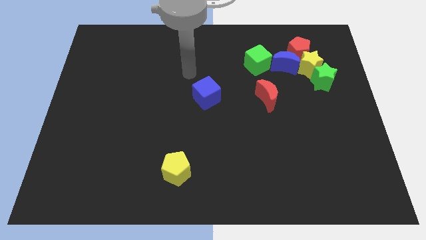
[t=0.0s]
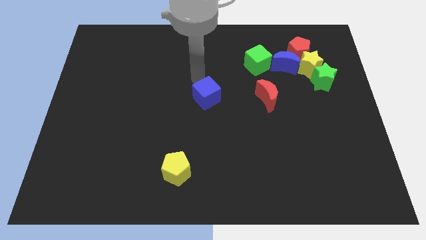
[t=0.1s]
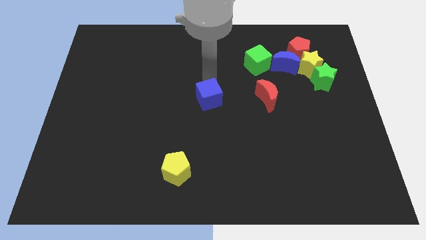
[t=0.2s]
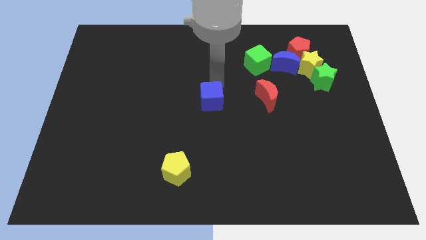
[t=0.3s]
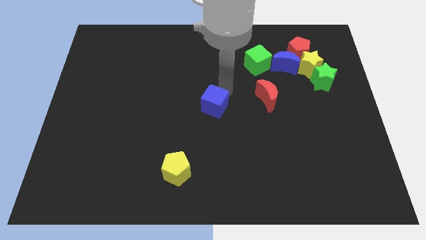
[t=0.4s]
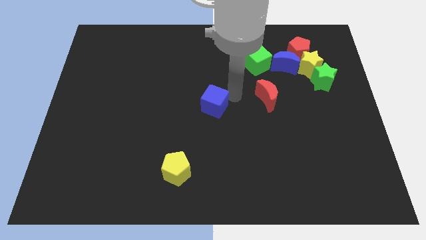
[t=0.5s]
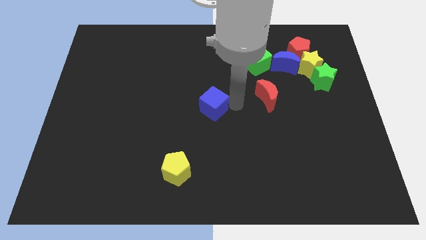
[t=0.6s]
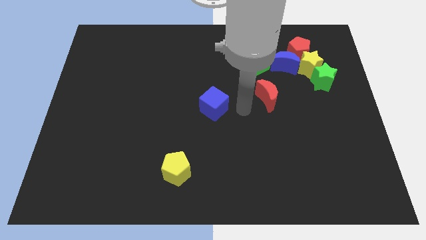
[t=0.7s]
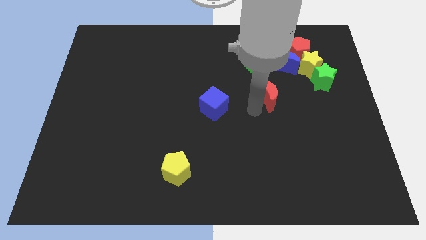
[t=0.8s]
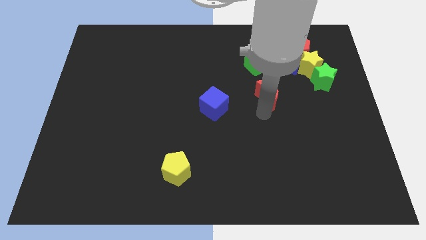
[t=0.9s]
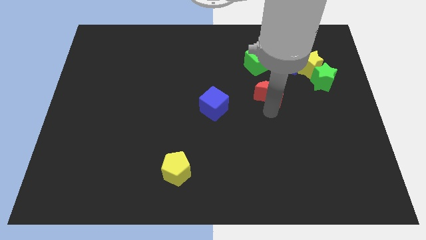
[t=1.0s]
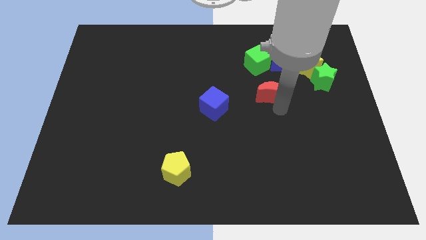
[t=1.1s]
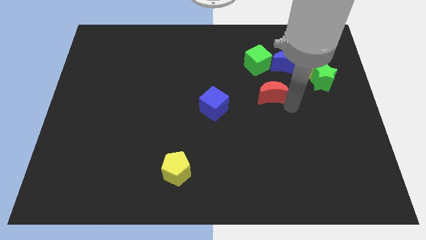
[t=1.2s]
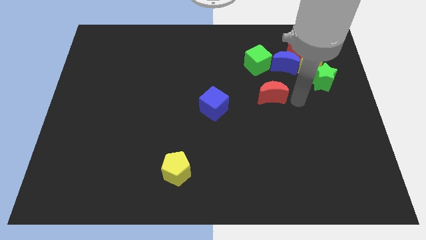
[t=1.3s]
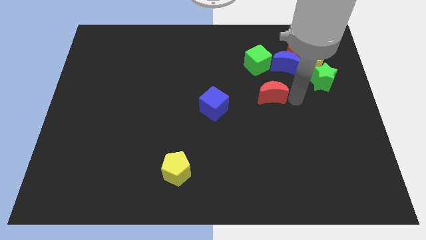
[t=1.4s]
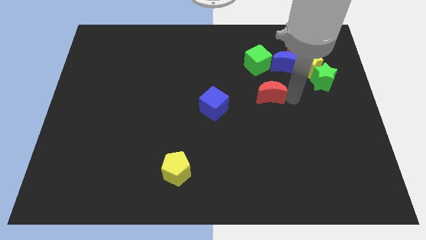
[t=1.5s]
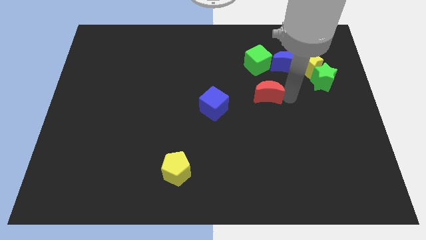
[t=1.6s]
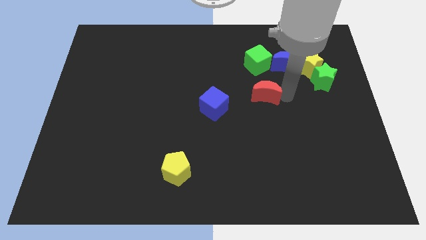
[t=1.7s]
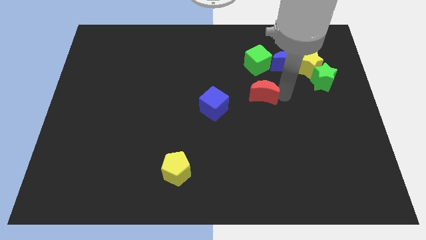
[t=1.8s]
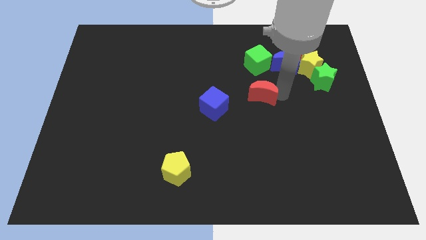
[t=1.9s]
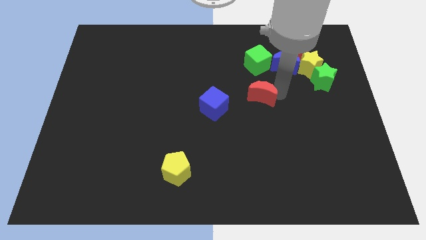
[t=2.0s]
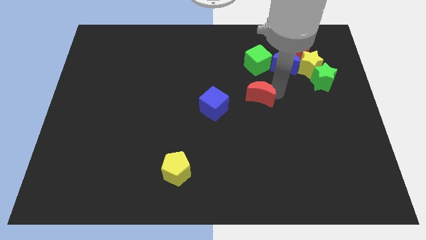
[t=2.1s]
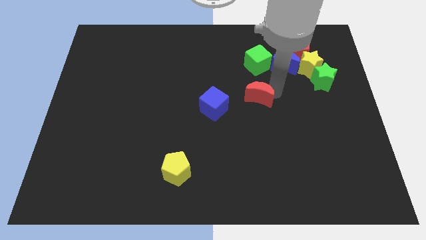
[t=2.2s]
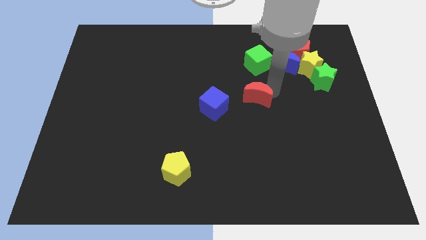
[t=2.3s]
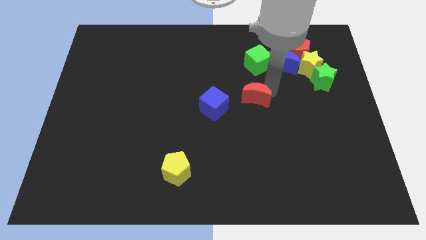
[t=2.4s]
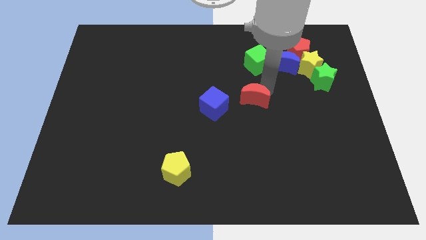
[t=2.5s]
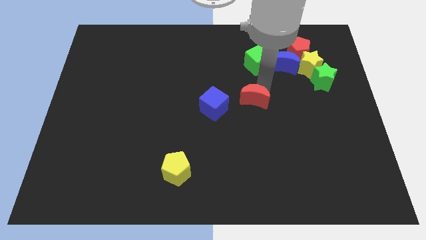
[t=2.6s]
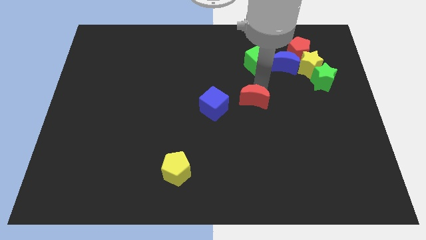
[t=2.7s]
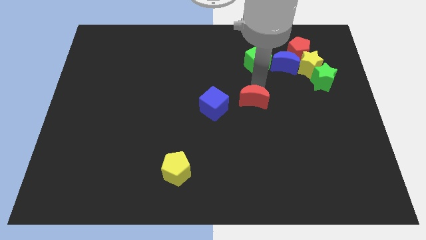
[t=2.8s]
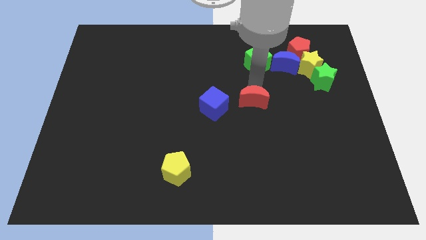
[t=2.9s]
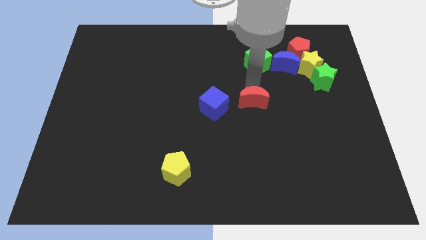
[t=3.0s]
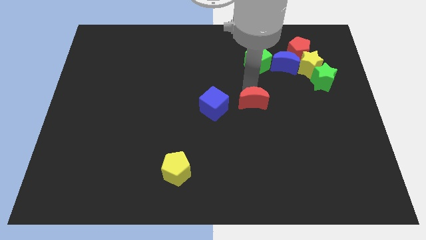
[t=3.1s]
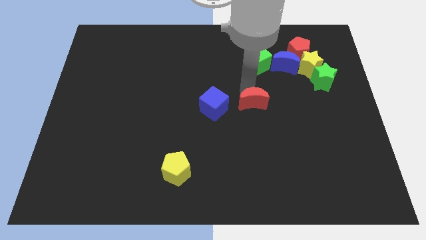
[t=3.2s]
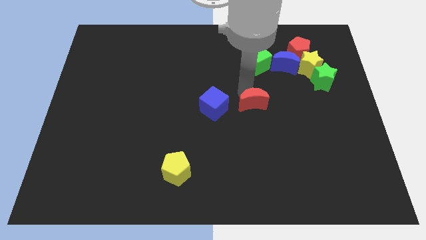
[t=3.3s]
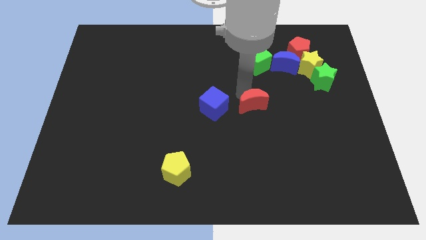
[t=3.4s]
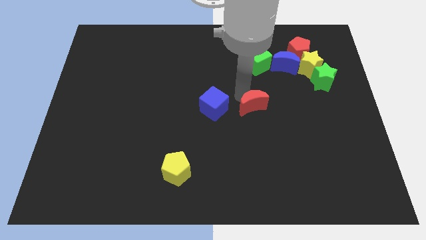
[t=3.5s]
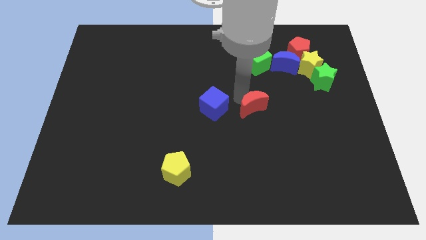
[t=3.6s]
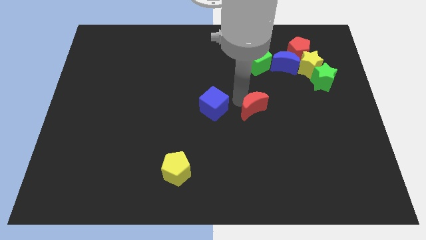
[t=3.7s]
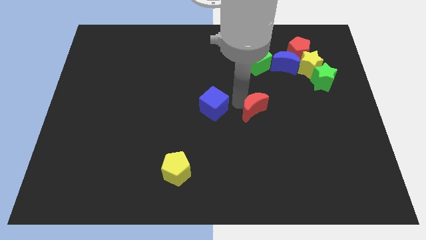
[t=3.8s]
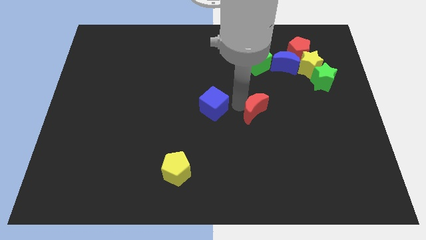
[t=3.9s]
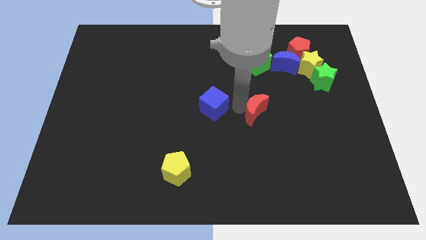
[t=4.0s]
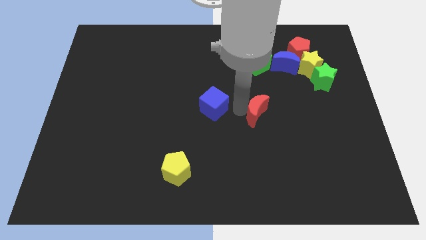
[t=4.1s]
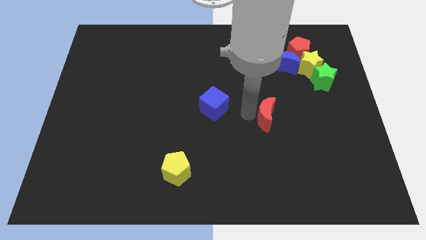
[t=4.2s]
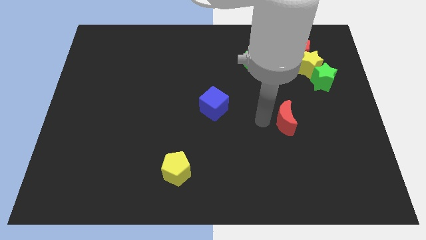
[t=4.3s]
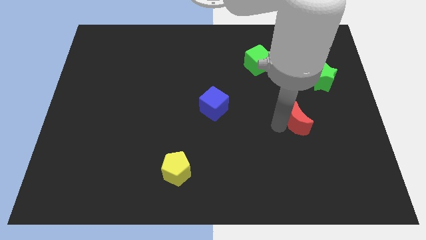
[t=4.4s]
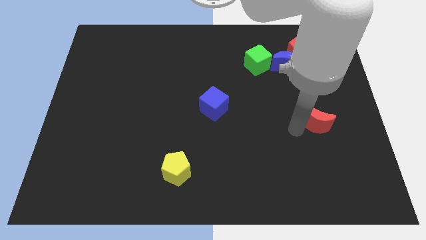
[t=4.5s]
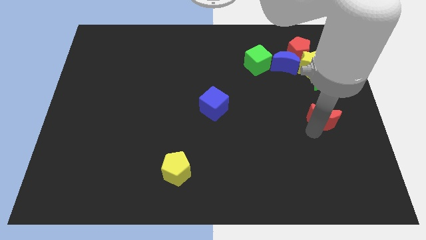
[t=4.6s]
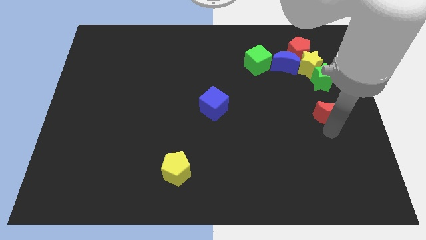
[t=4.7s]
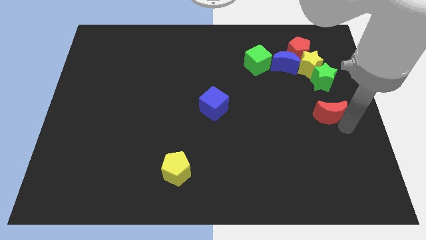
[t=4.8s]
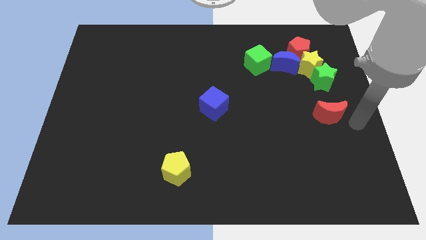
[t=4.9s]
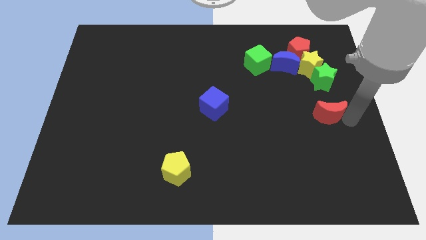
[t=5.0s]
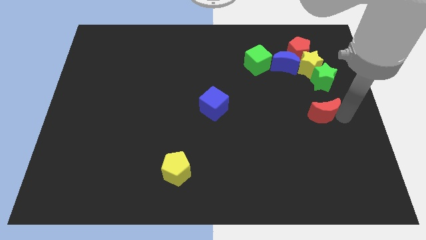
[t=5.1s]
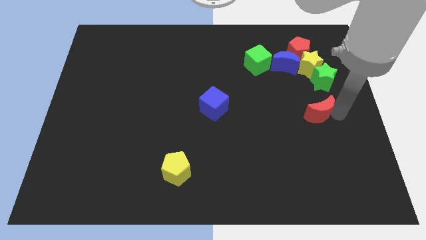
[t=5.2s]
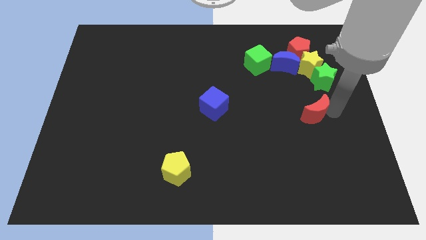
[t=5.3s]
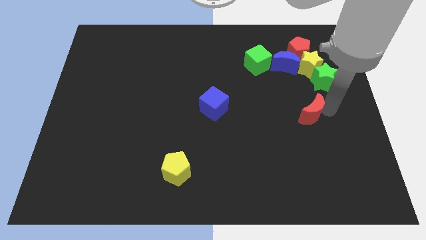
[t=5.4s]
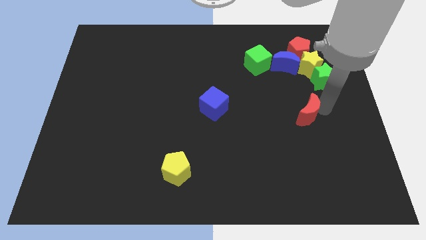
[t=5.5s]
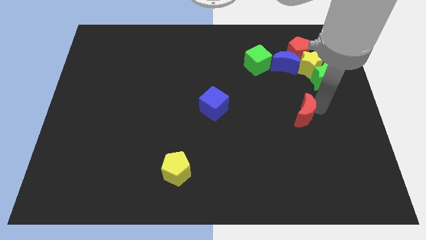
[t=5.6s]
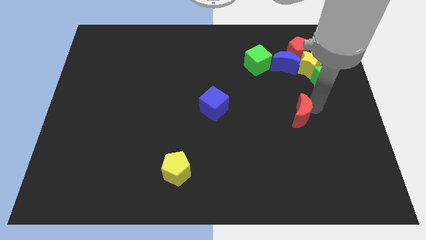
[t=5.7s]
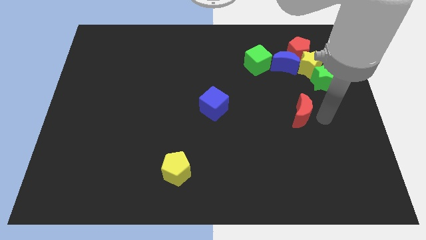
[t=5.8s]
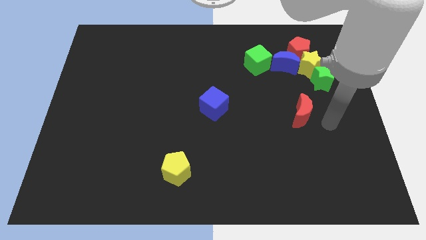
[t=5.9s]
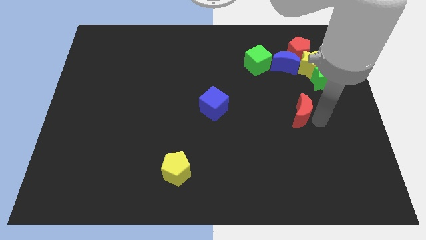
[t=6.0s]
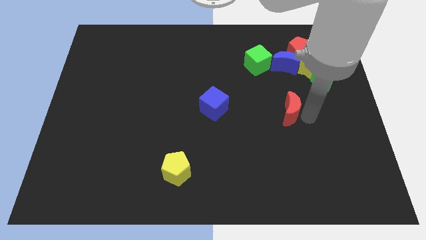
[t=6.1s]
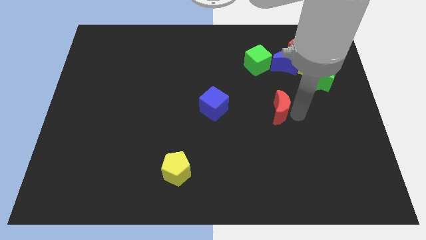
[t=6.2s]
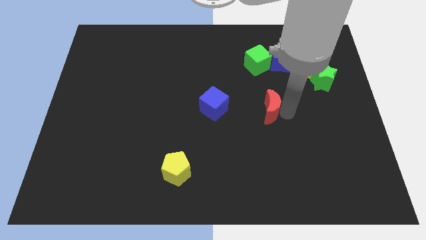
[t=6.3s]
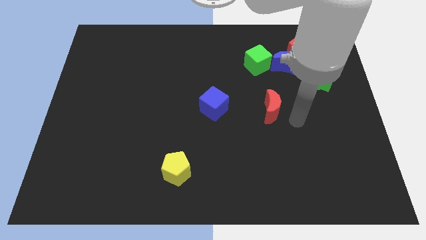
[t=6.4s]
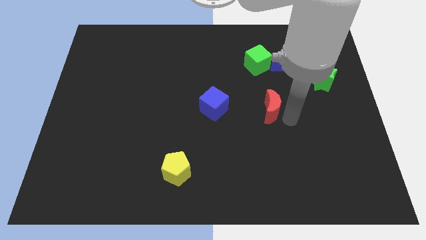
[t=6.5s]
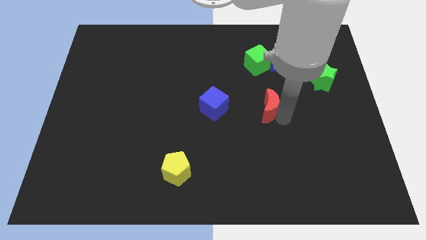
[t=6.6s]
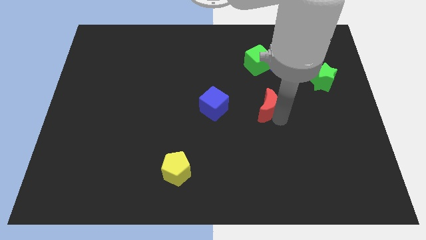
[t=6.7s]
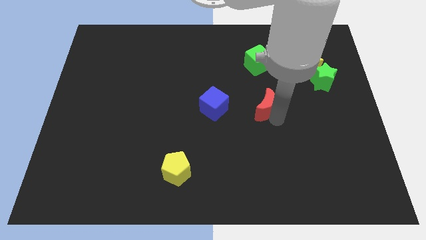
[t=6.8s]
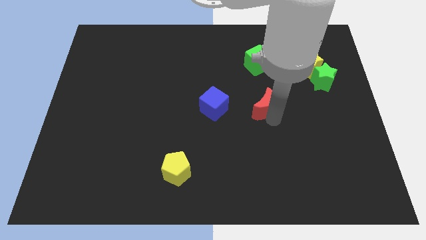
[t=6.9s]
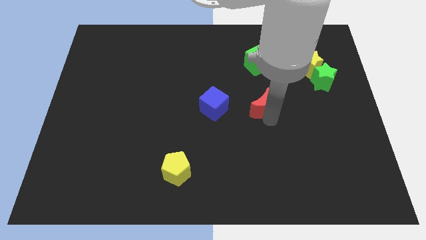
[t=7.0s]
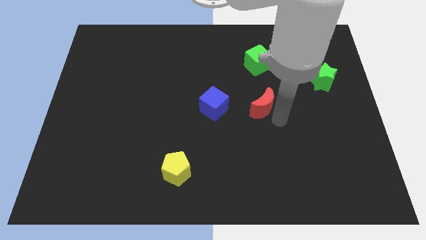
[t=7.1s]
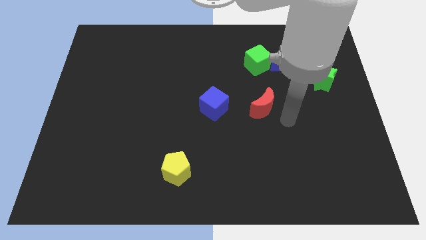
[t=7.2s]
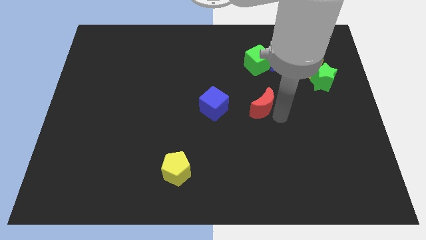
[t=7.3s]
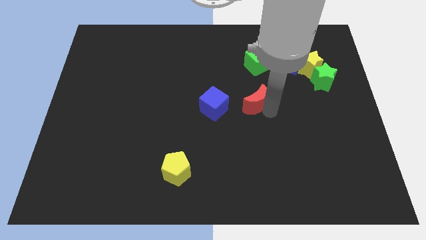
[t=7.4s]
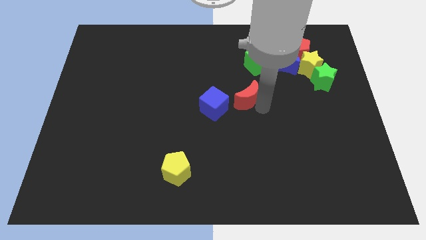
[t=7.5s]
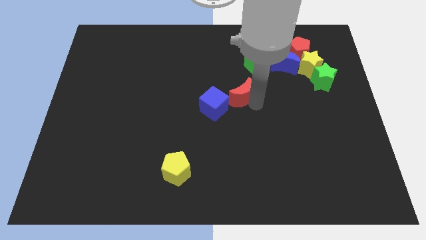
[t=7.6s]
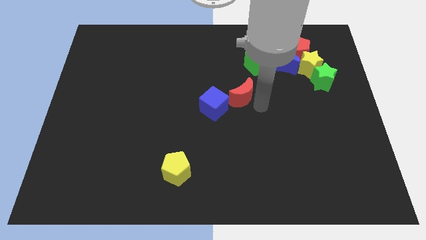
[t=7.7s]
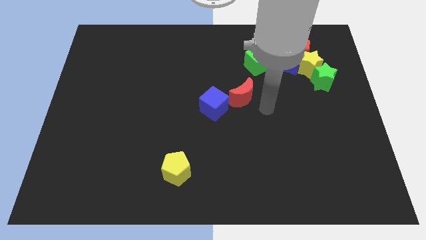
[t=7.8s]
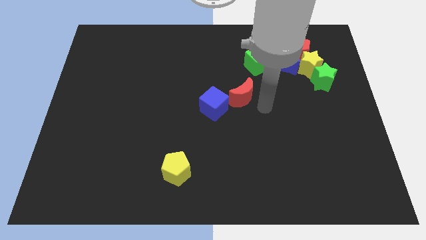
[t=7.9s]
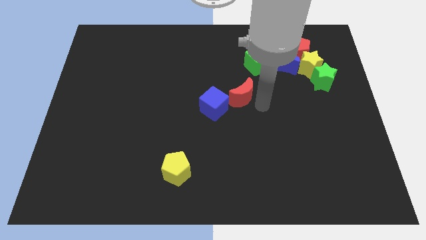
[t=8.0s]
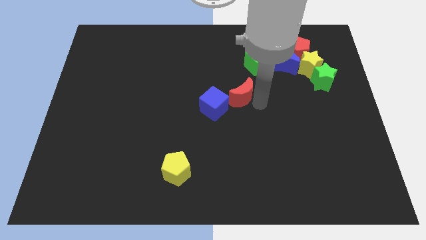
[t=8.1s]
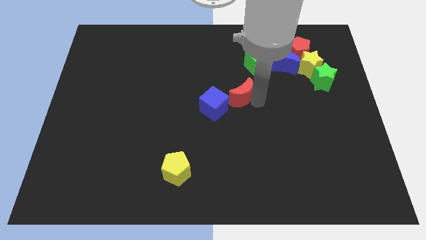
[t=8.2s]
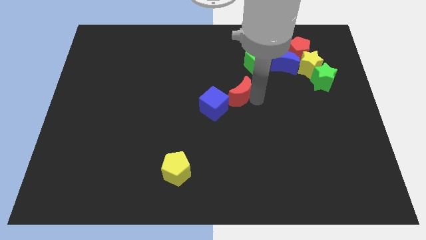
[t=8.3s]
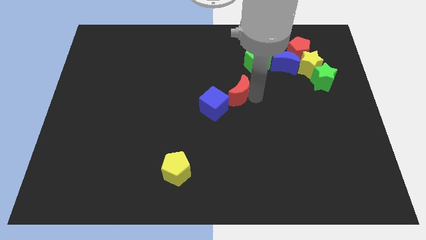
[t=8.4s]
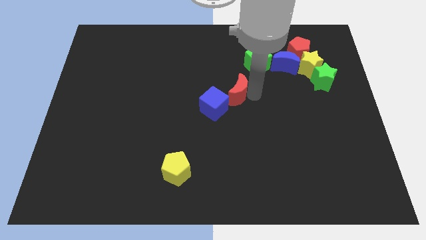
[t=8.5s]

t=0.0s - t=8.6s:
slightly slide the red moon to the left
